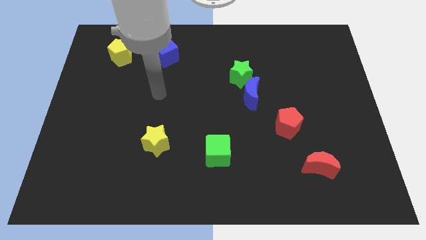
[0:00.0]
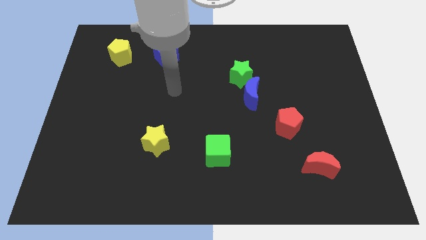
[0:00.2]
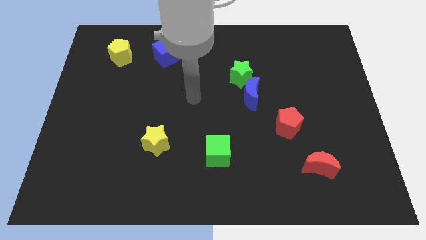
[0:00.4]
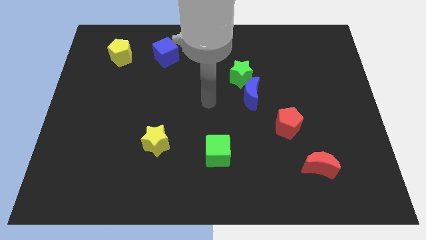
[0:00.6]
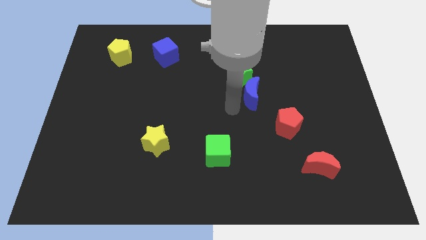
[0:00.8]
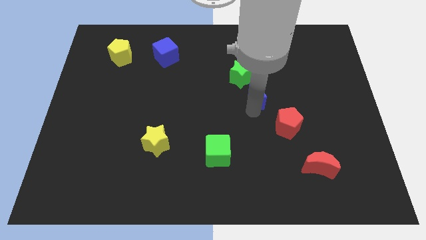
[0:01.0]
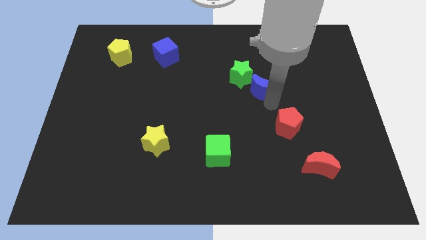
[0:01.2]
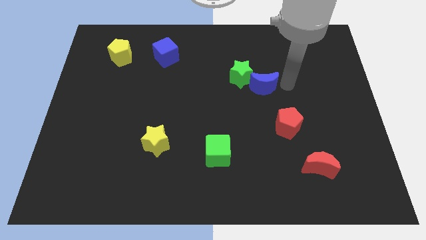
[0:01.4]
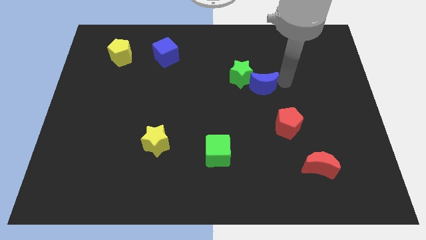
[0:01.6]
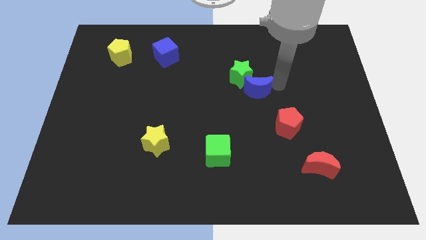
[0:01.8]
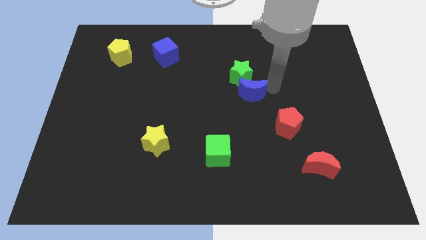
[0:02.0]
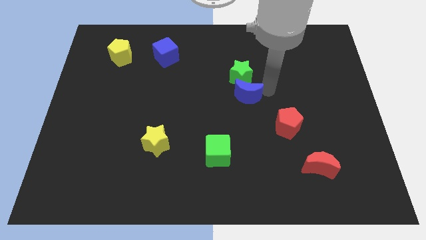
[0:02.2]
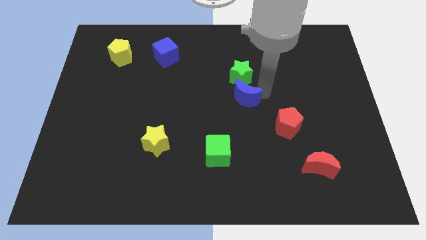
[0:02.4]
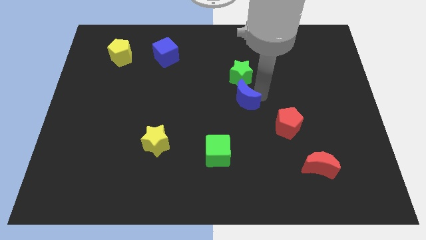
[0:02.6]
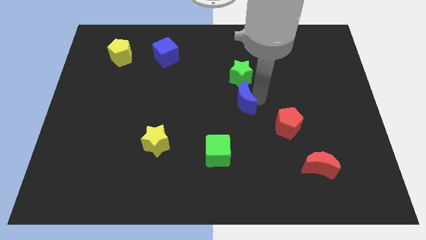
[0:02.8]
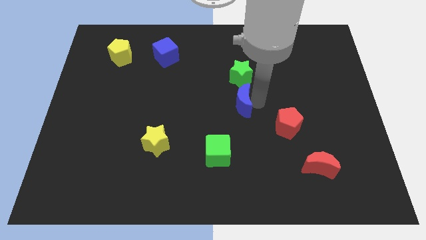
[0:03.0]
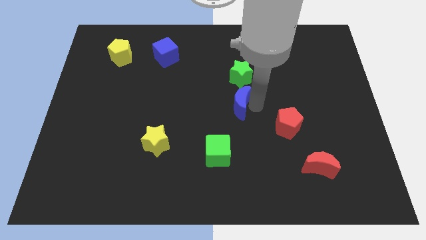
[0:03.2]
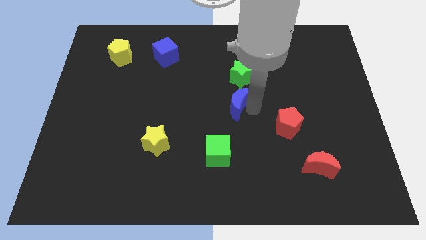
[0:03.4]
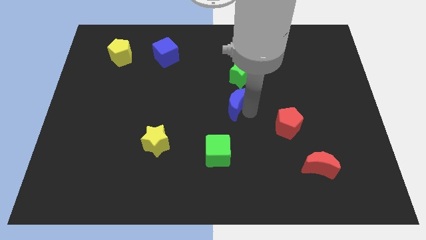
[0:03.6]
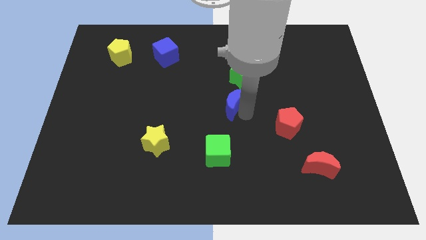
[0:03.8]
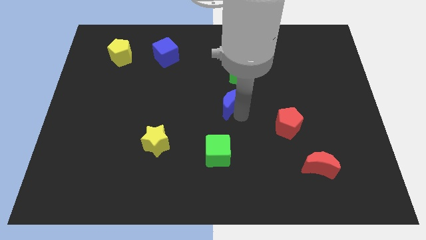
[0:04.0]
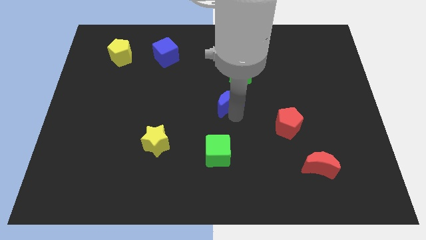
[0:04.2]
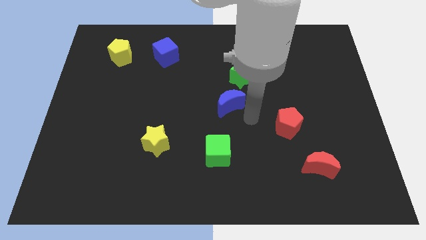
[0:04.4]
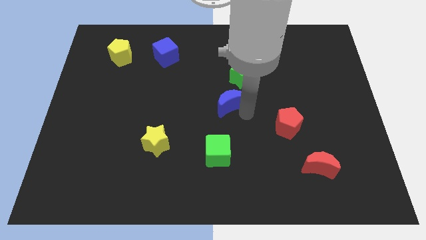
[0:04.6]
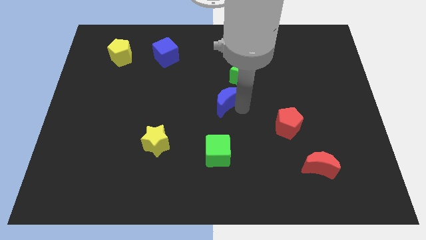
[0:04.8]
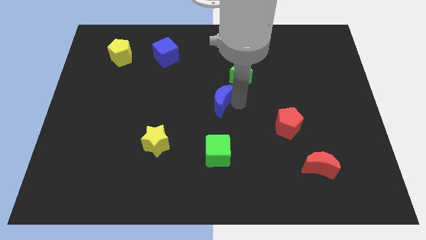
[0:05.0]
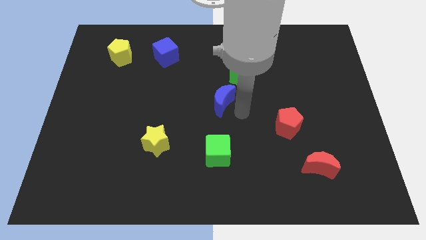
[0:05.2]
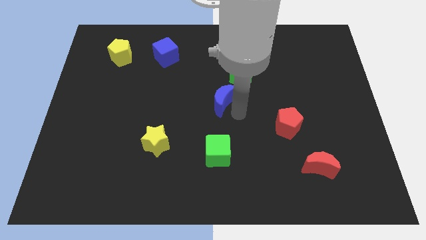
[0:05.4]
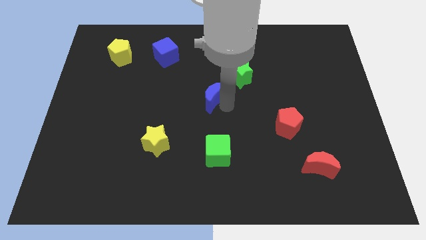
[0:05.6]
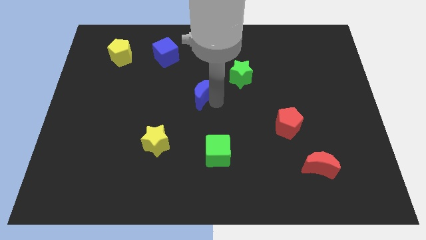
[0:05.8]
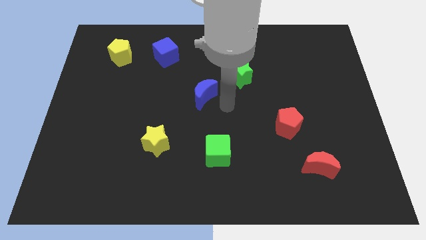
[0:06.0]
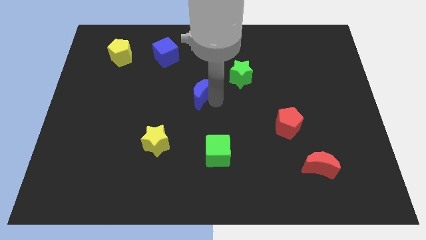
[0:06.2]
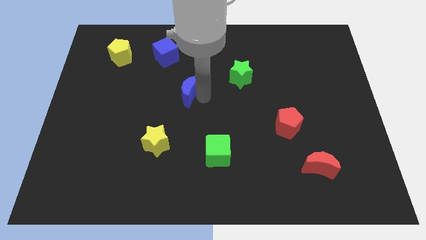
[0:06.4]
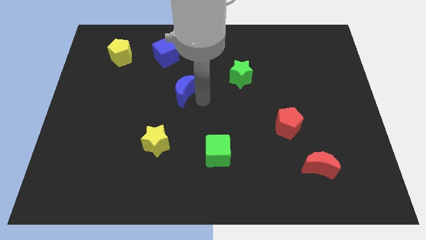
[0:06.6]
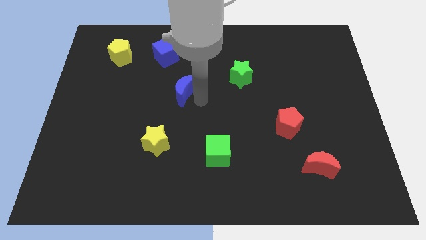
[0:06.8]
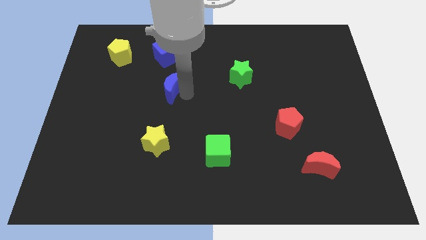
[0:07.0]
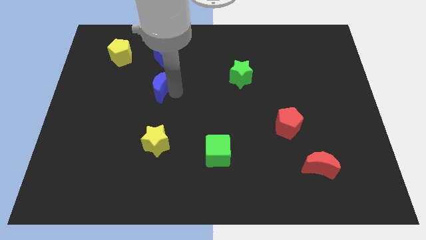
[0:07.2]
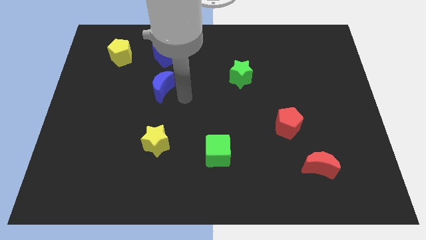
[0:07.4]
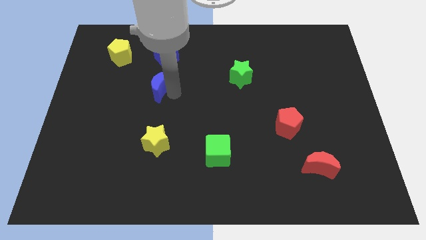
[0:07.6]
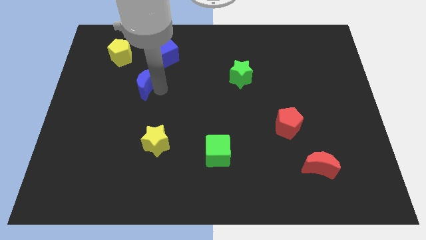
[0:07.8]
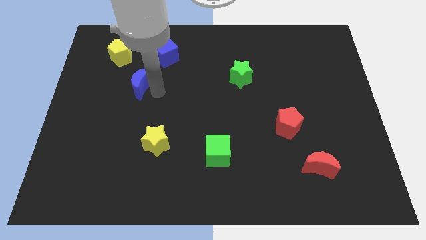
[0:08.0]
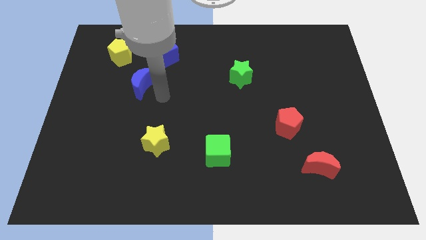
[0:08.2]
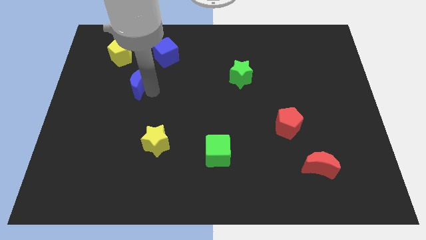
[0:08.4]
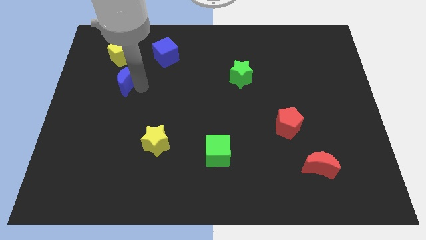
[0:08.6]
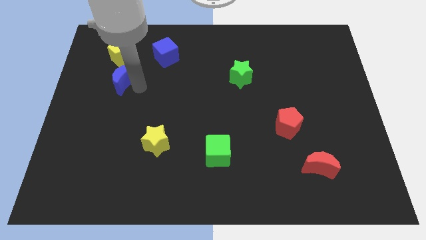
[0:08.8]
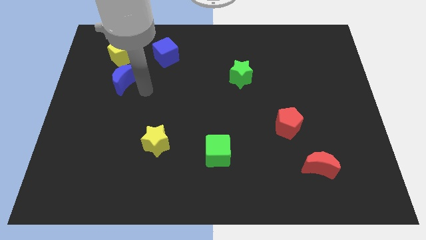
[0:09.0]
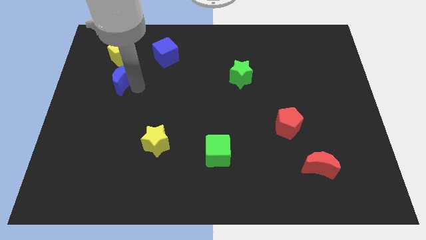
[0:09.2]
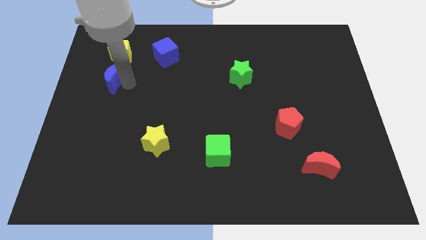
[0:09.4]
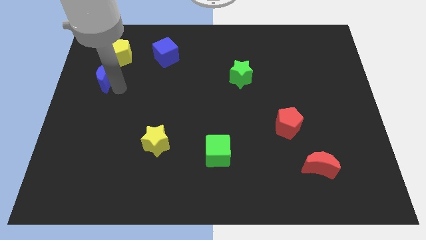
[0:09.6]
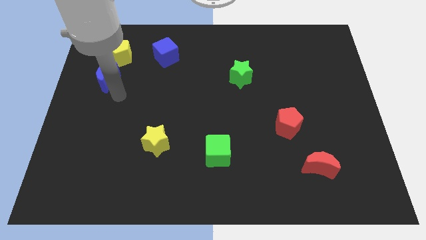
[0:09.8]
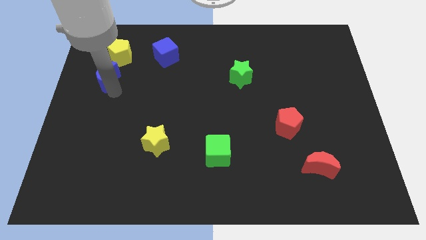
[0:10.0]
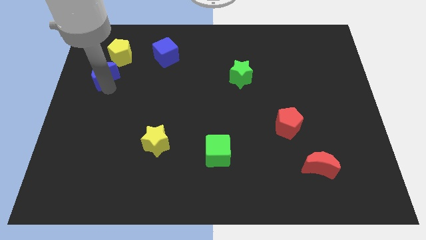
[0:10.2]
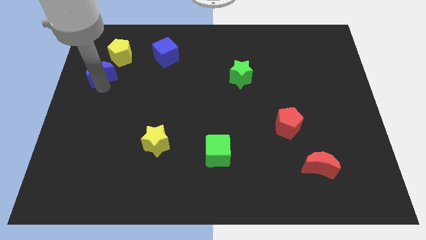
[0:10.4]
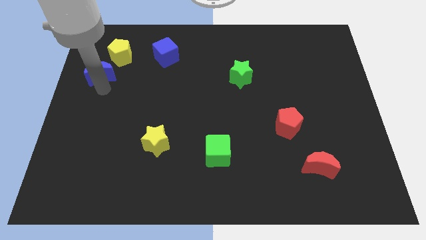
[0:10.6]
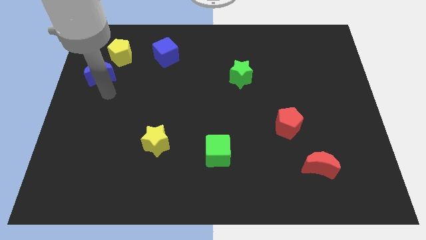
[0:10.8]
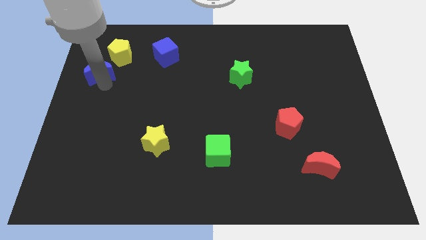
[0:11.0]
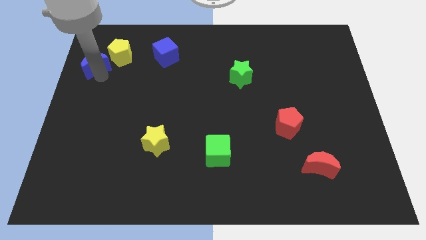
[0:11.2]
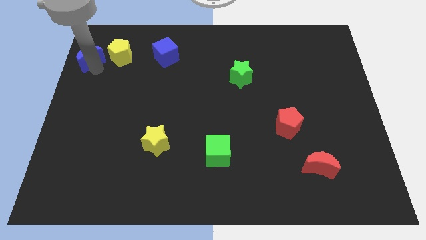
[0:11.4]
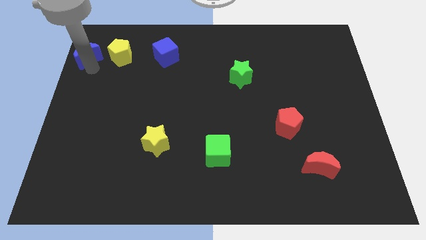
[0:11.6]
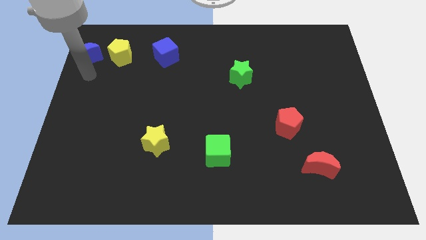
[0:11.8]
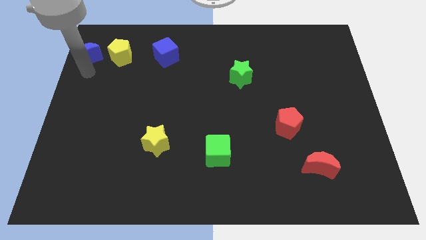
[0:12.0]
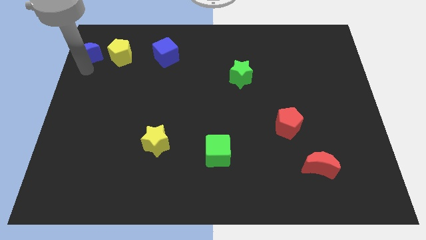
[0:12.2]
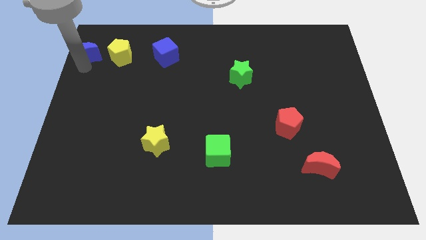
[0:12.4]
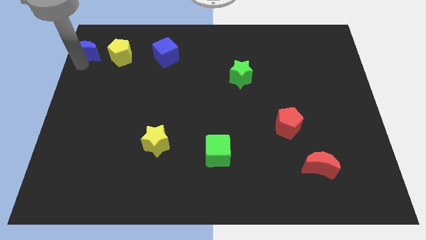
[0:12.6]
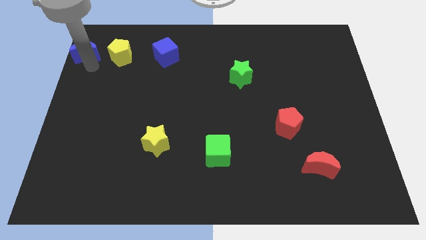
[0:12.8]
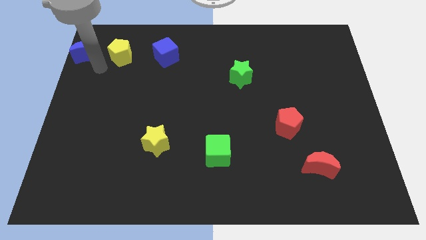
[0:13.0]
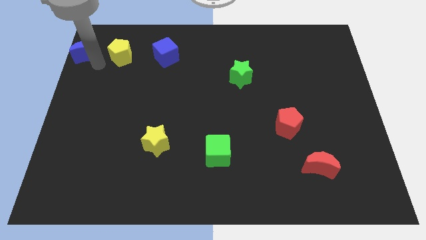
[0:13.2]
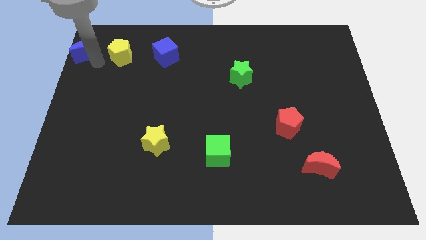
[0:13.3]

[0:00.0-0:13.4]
move the blue moon to the top left
